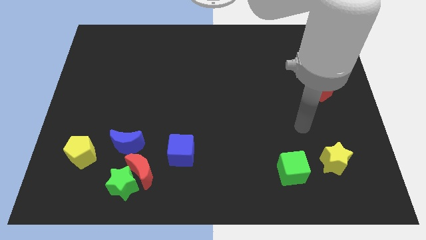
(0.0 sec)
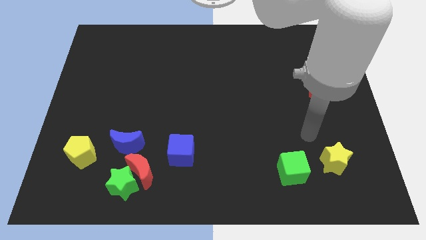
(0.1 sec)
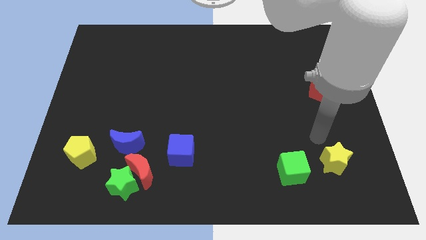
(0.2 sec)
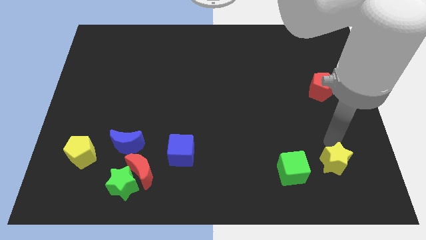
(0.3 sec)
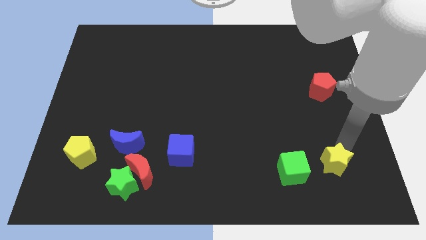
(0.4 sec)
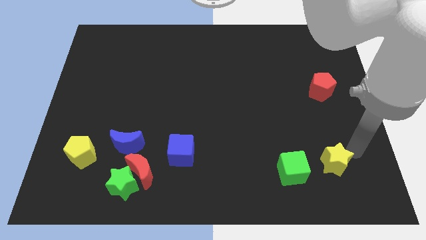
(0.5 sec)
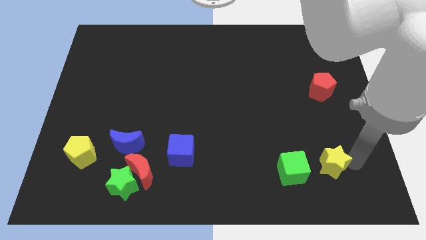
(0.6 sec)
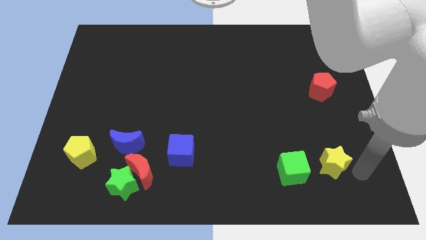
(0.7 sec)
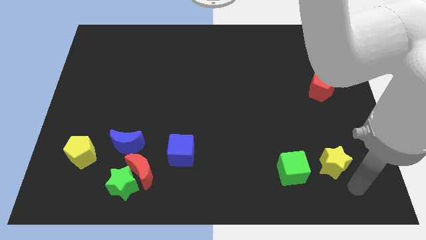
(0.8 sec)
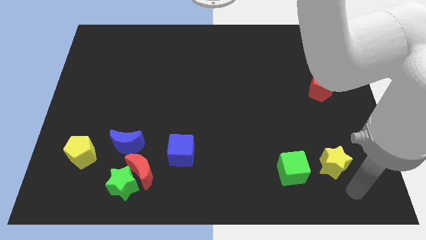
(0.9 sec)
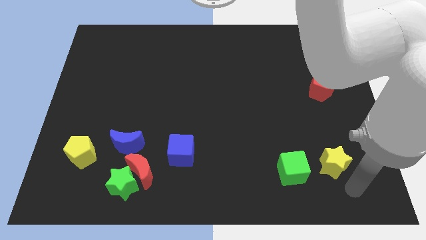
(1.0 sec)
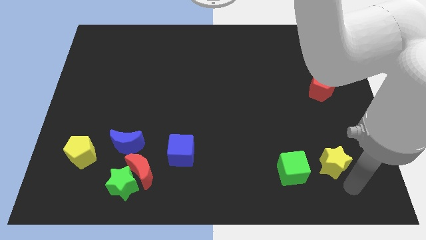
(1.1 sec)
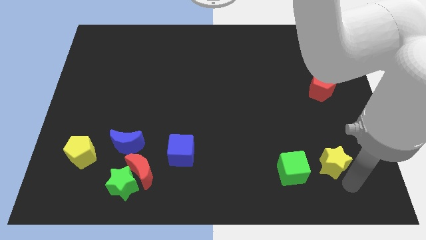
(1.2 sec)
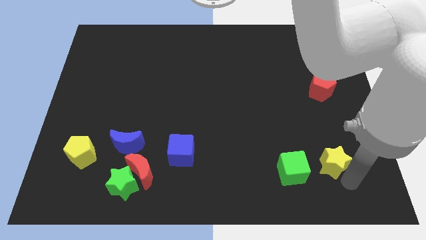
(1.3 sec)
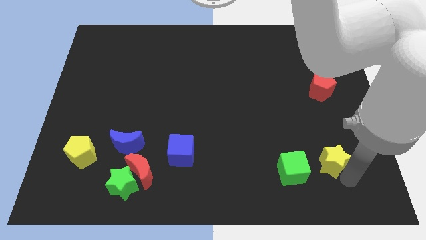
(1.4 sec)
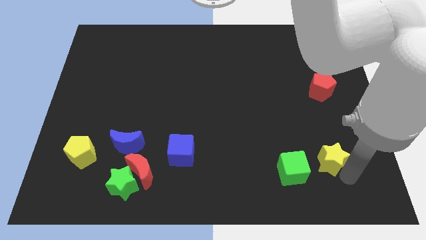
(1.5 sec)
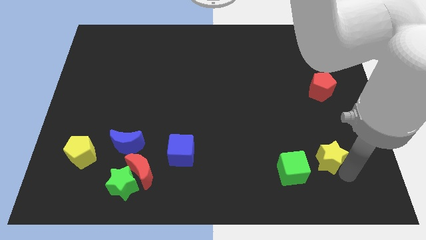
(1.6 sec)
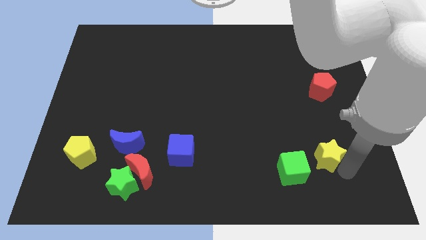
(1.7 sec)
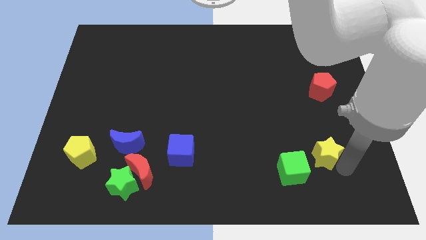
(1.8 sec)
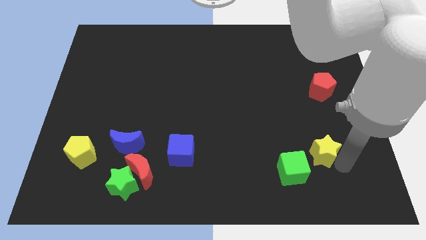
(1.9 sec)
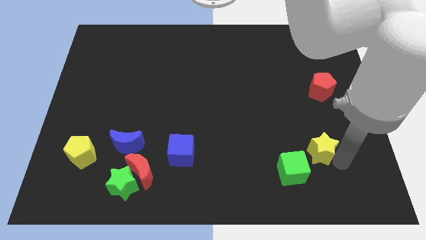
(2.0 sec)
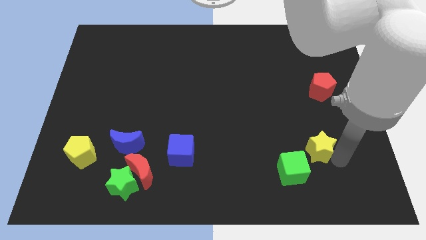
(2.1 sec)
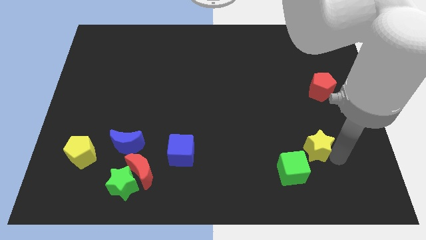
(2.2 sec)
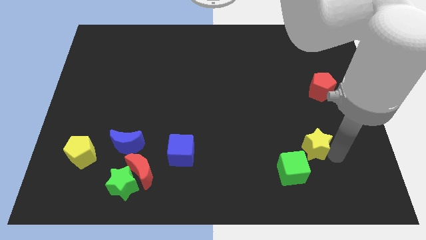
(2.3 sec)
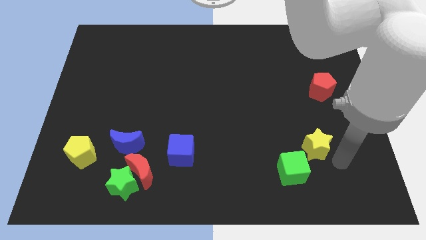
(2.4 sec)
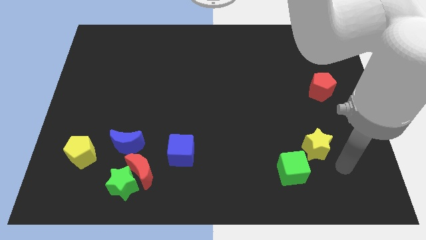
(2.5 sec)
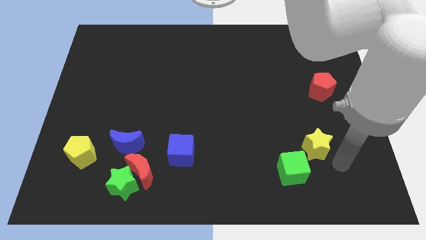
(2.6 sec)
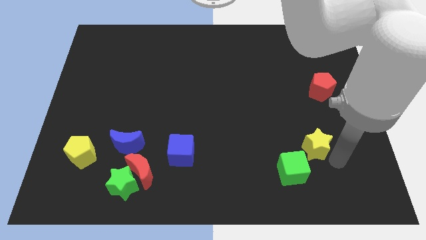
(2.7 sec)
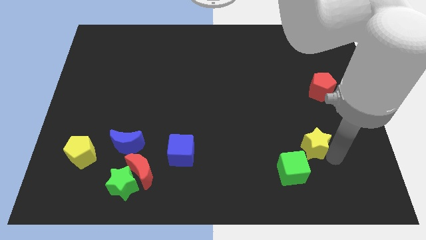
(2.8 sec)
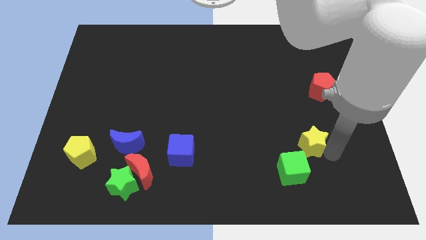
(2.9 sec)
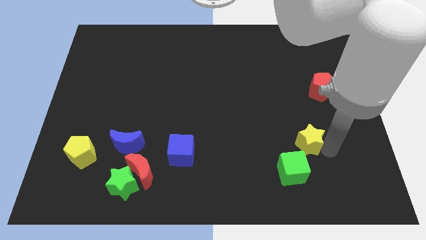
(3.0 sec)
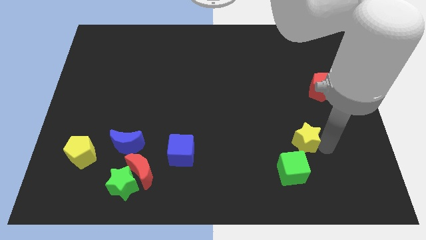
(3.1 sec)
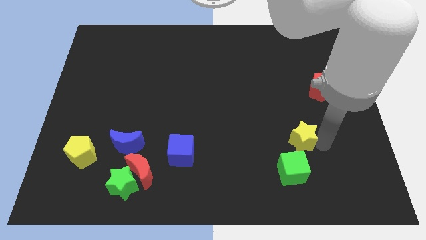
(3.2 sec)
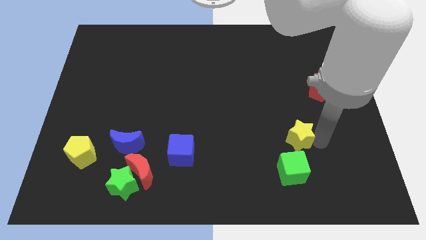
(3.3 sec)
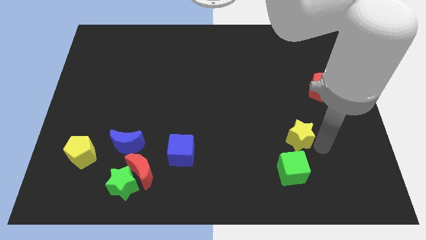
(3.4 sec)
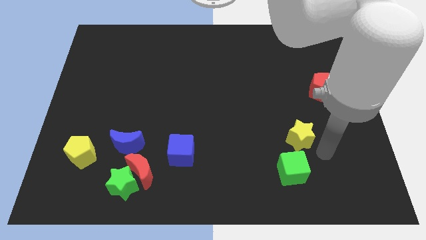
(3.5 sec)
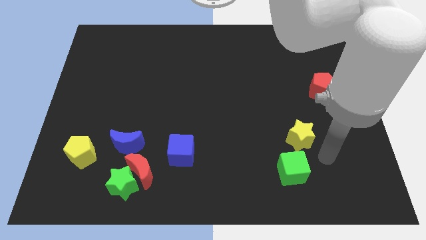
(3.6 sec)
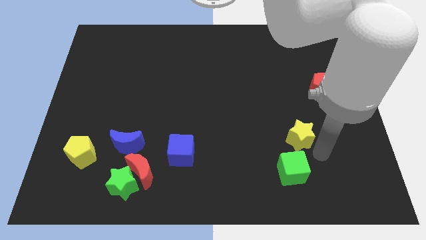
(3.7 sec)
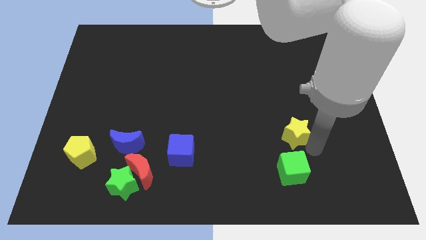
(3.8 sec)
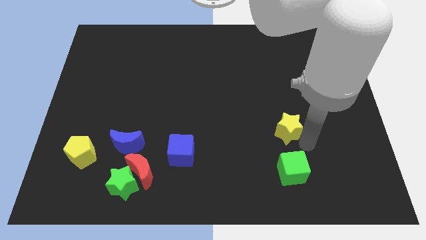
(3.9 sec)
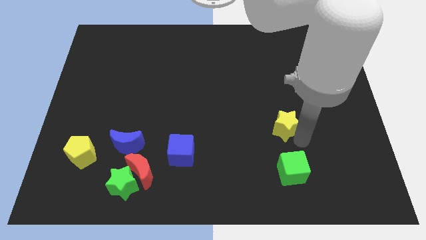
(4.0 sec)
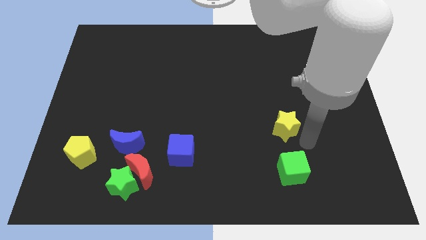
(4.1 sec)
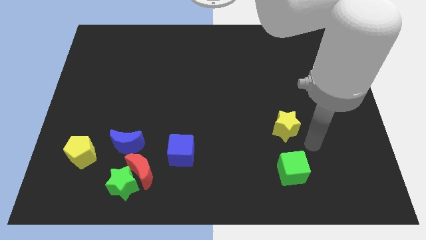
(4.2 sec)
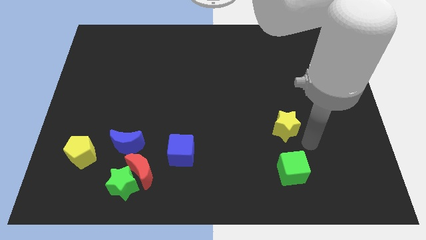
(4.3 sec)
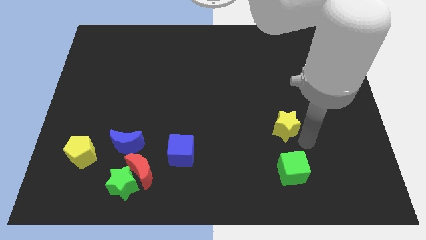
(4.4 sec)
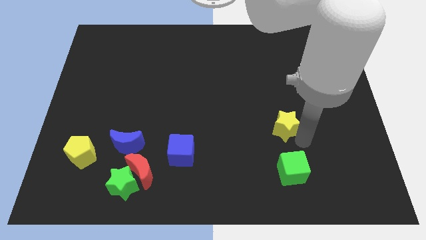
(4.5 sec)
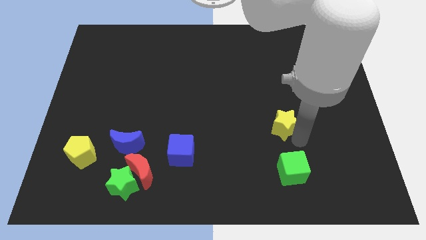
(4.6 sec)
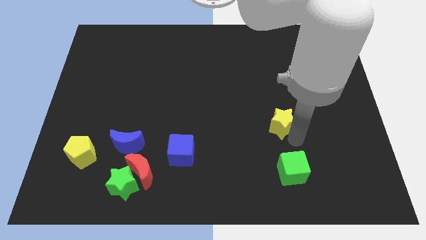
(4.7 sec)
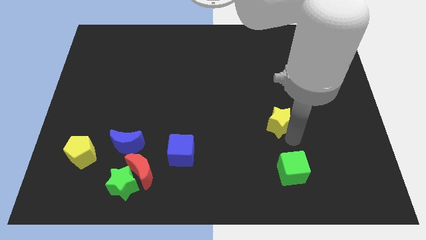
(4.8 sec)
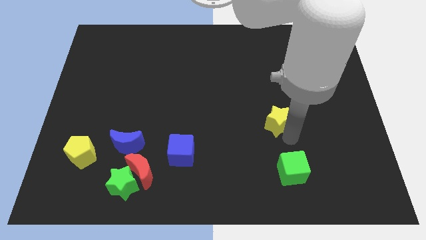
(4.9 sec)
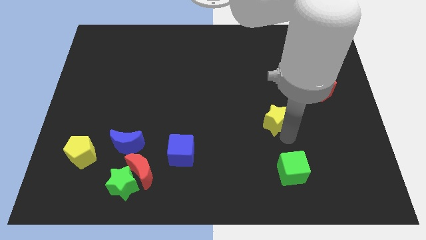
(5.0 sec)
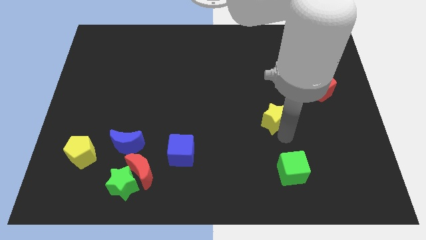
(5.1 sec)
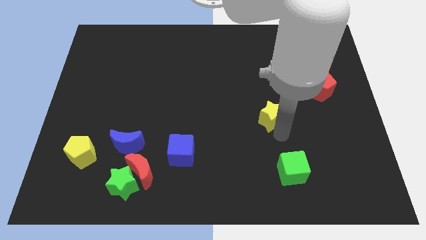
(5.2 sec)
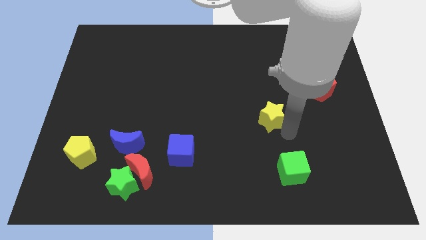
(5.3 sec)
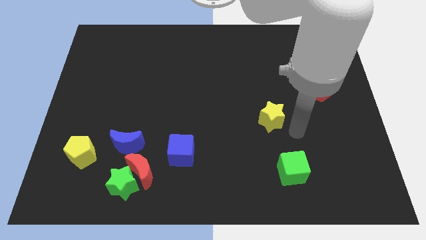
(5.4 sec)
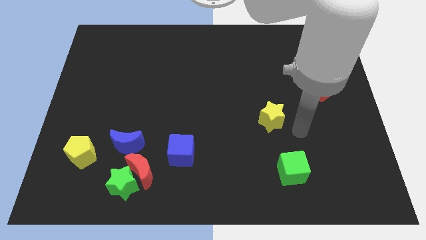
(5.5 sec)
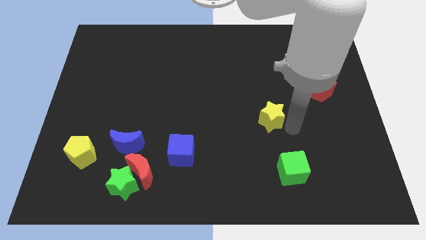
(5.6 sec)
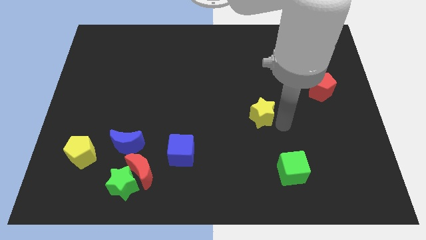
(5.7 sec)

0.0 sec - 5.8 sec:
move the yellow star to the center

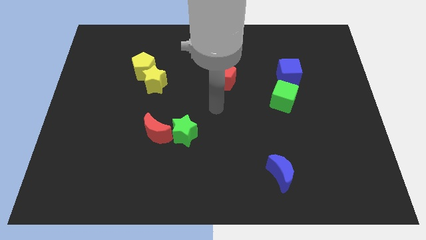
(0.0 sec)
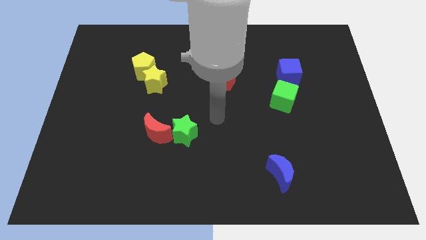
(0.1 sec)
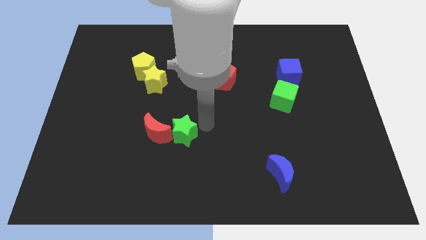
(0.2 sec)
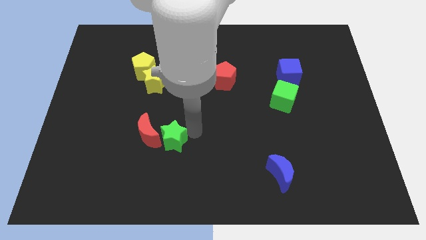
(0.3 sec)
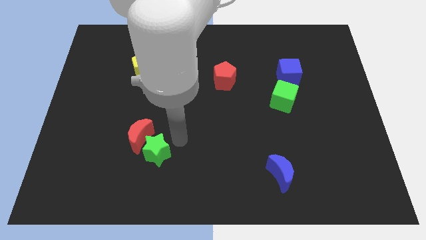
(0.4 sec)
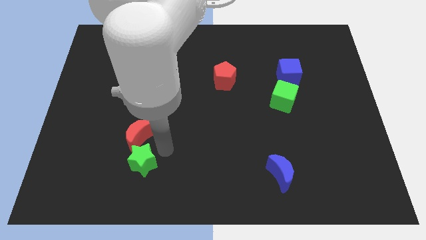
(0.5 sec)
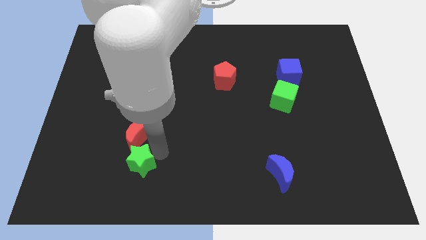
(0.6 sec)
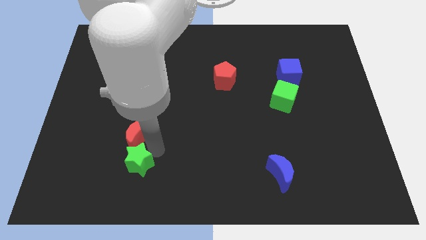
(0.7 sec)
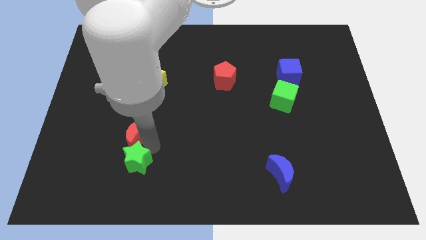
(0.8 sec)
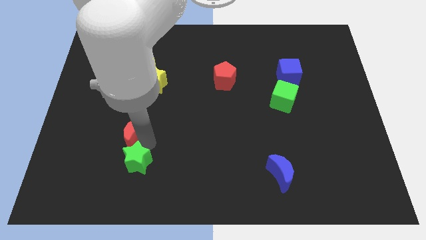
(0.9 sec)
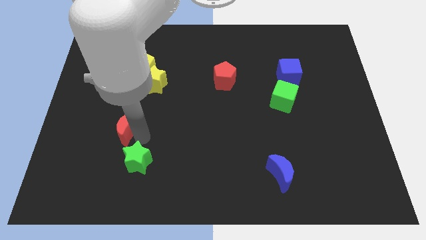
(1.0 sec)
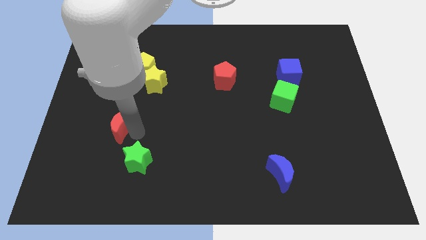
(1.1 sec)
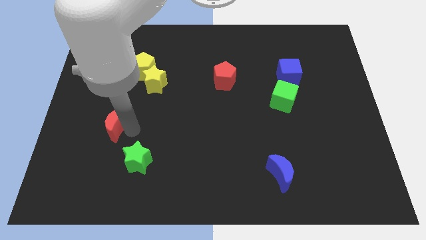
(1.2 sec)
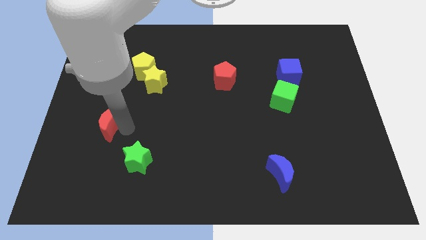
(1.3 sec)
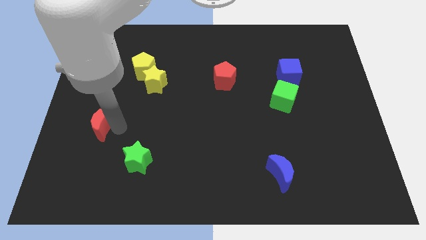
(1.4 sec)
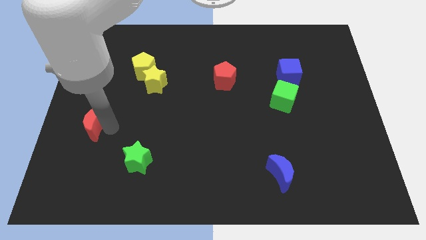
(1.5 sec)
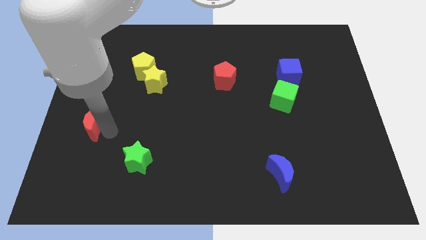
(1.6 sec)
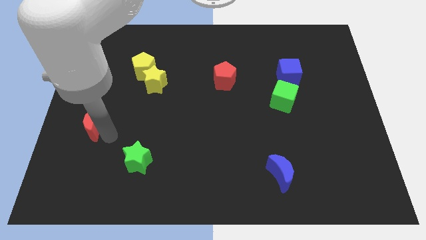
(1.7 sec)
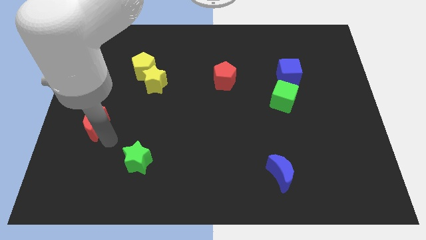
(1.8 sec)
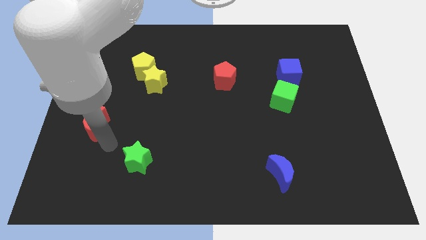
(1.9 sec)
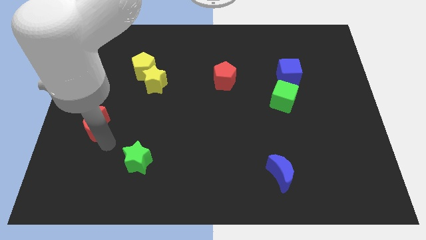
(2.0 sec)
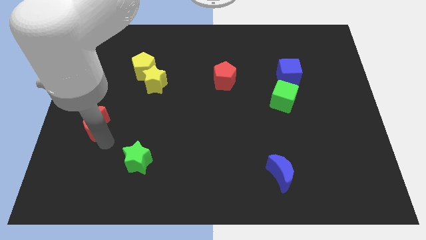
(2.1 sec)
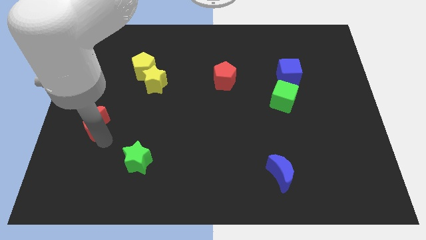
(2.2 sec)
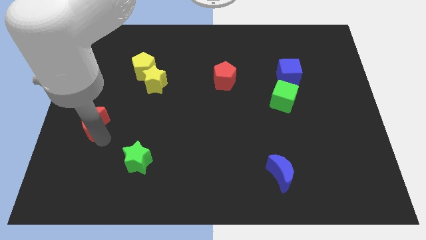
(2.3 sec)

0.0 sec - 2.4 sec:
move the red moon to the center left
